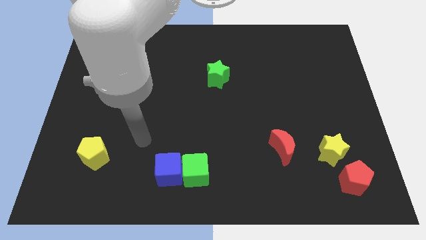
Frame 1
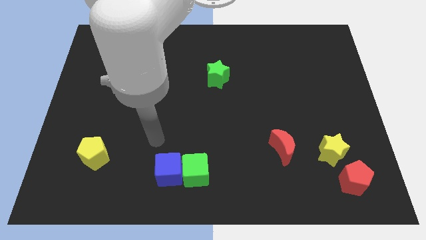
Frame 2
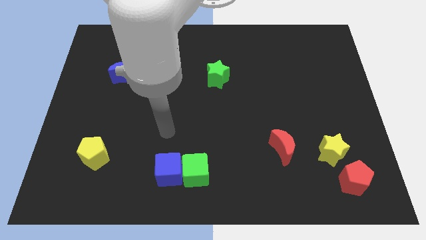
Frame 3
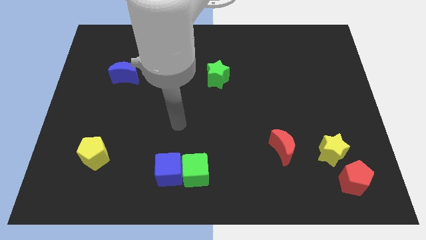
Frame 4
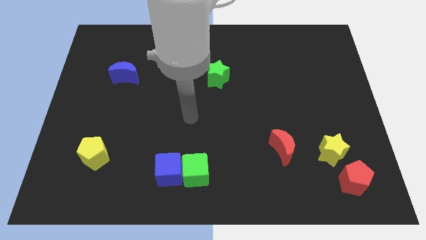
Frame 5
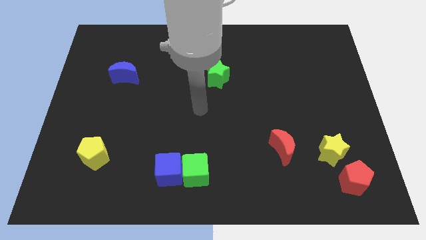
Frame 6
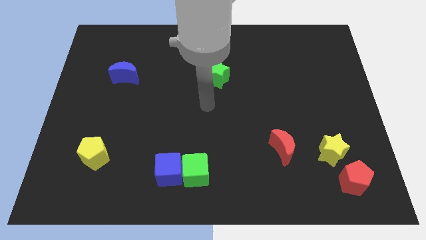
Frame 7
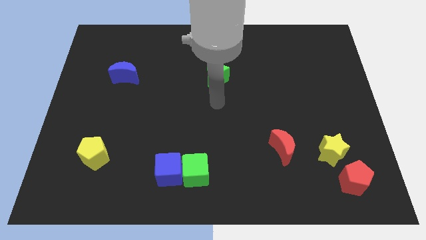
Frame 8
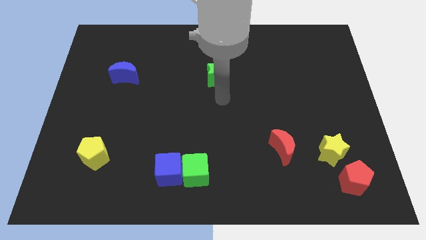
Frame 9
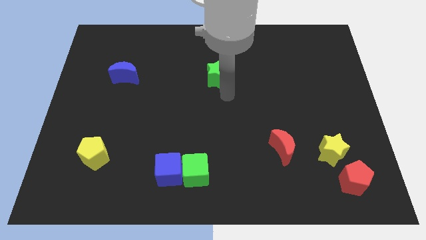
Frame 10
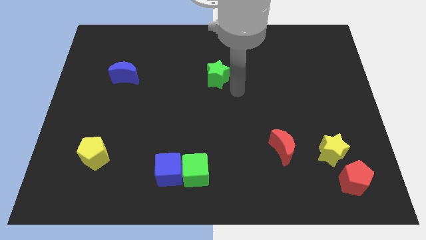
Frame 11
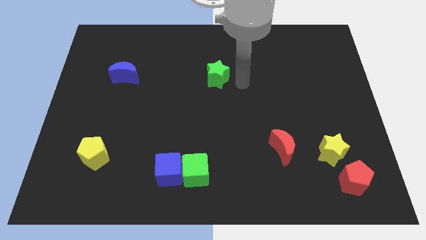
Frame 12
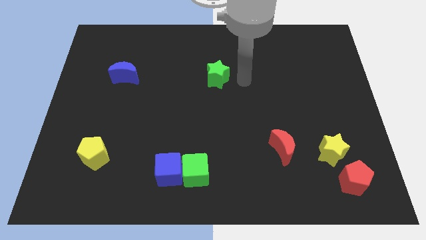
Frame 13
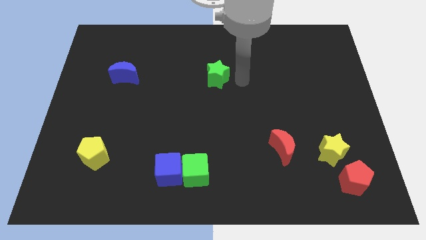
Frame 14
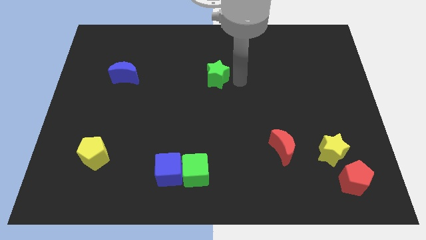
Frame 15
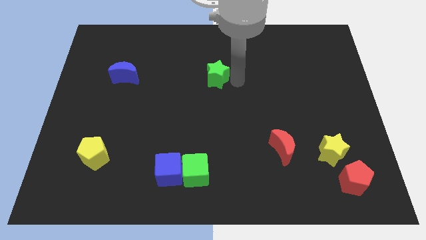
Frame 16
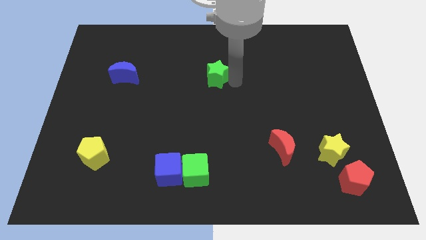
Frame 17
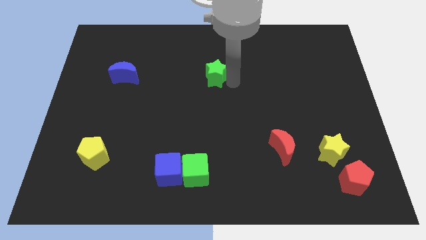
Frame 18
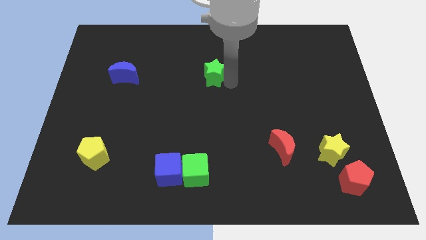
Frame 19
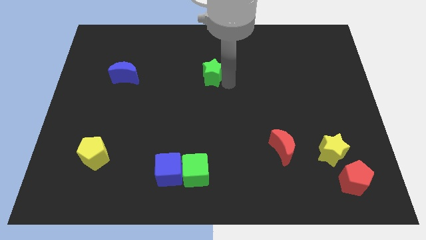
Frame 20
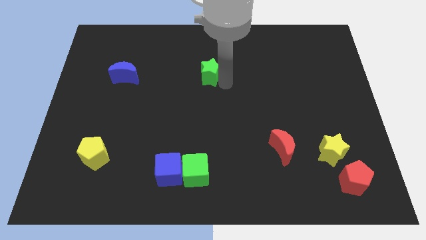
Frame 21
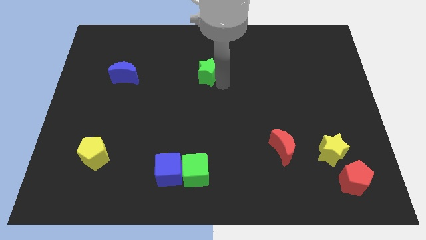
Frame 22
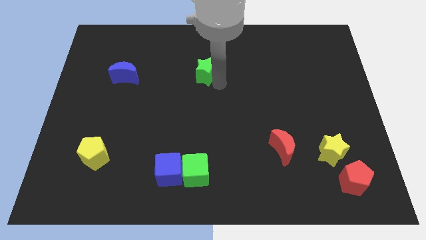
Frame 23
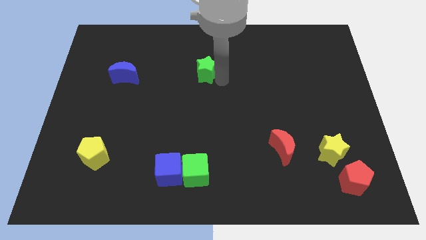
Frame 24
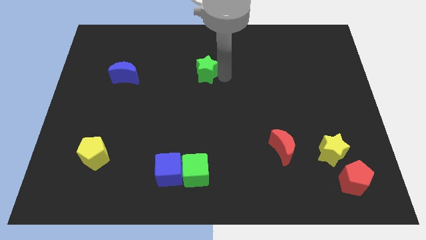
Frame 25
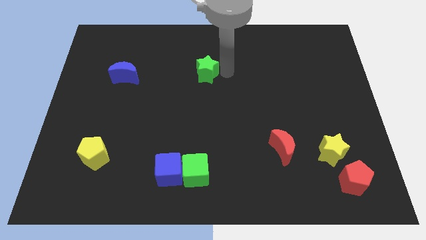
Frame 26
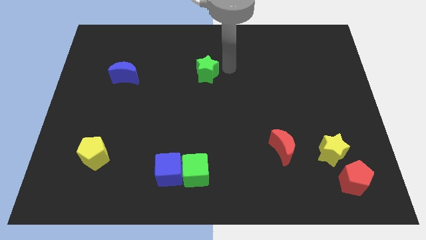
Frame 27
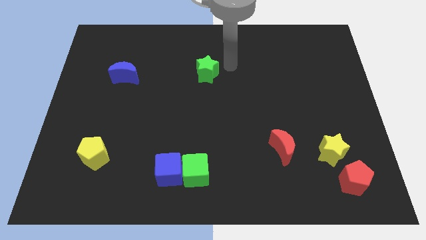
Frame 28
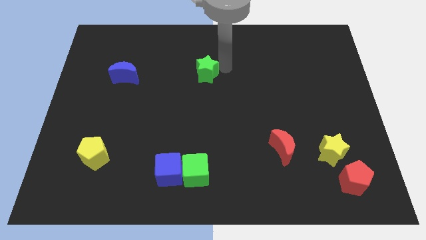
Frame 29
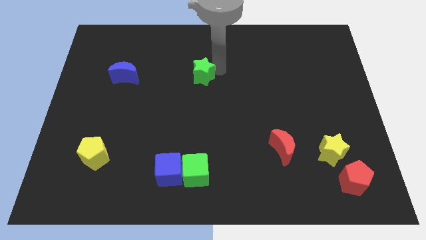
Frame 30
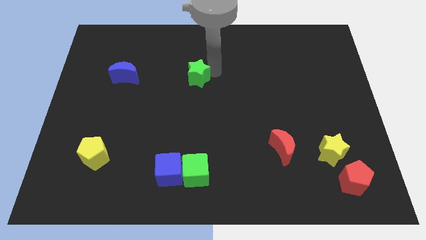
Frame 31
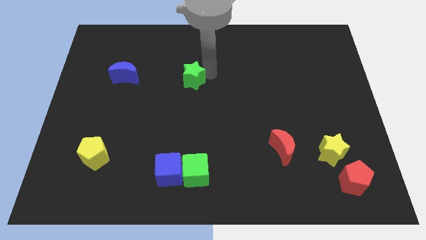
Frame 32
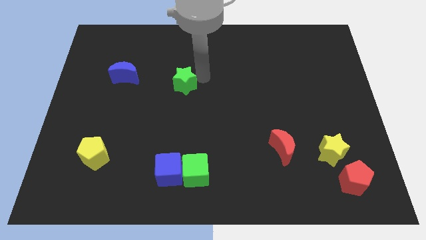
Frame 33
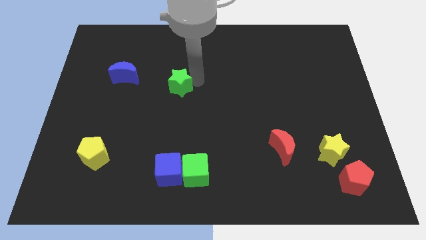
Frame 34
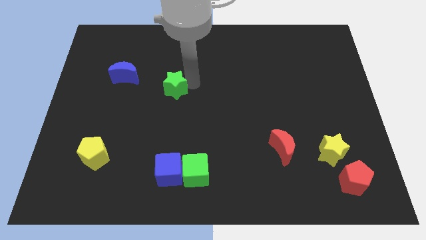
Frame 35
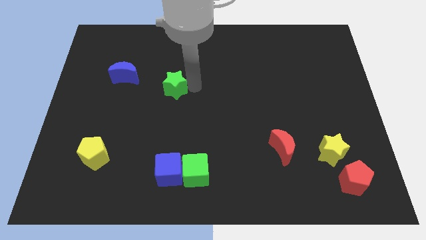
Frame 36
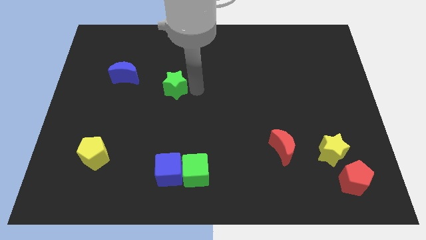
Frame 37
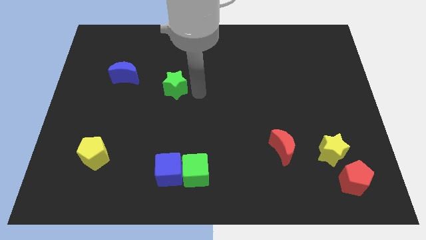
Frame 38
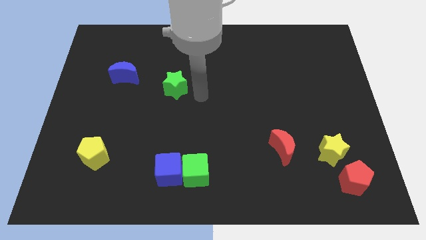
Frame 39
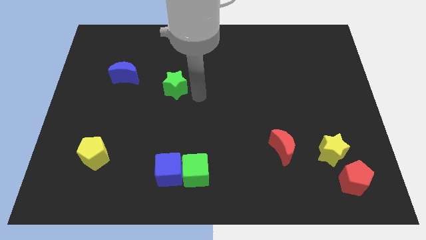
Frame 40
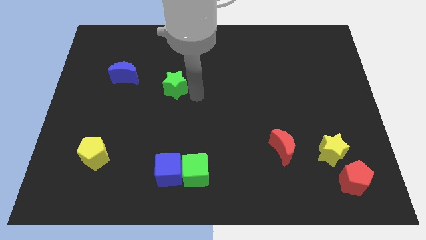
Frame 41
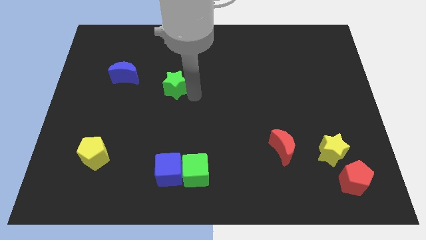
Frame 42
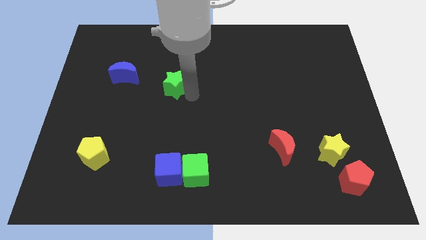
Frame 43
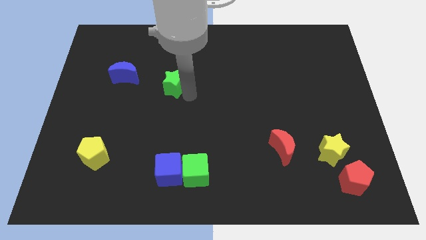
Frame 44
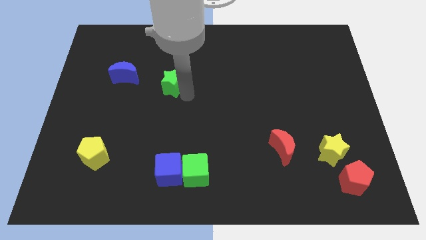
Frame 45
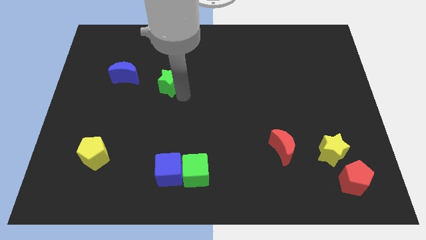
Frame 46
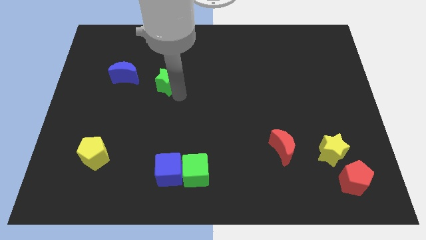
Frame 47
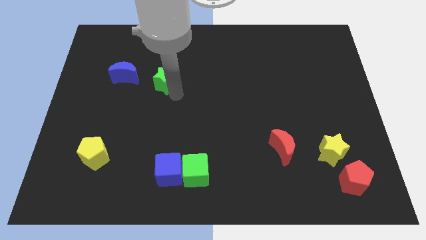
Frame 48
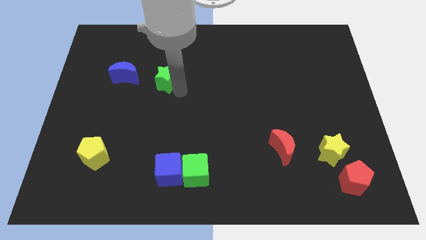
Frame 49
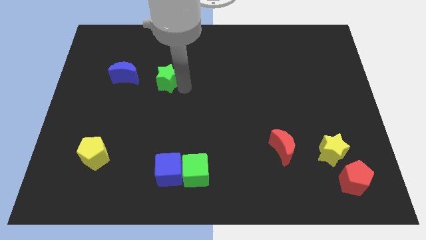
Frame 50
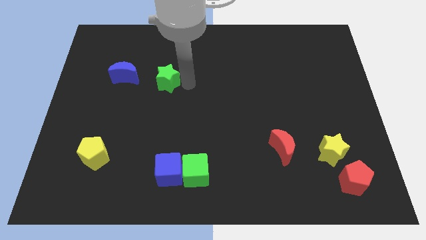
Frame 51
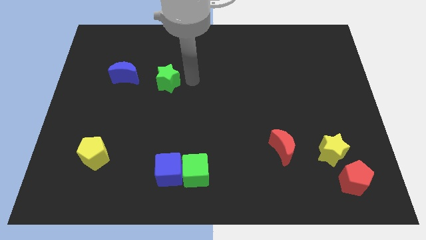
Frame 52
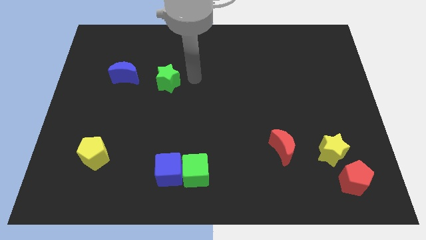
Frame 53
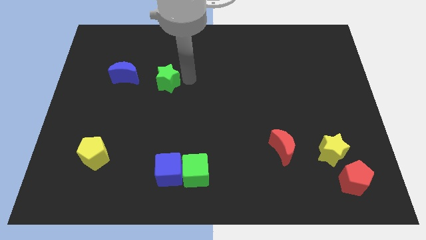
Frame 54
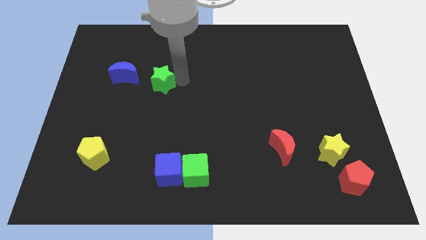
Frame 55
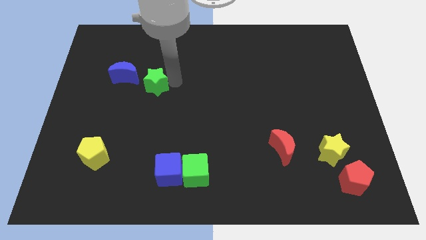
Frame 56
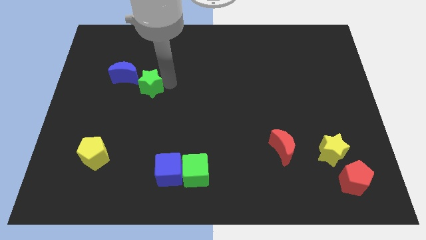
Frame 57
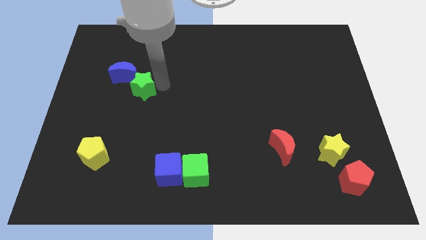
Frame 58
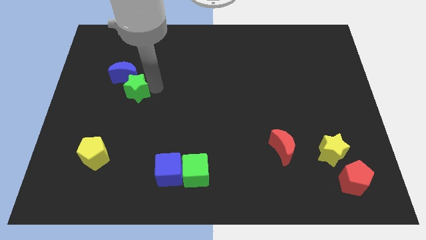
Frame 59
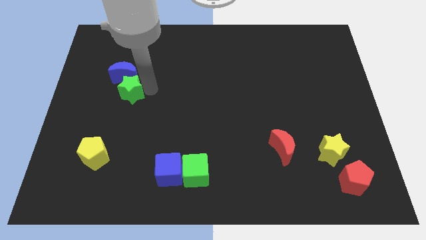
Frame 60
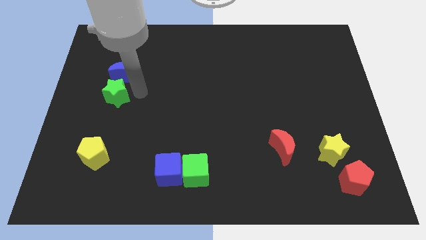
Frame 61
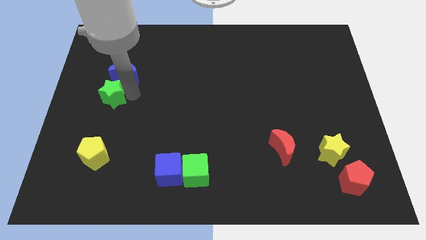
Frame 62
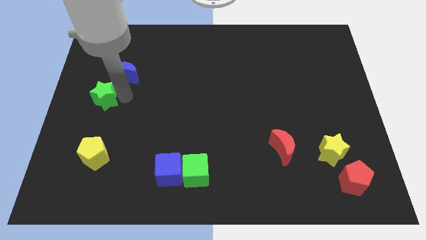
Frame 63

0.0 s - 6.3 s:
put the green star to the left side of the board

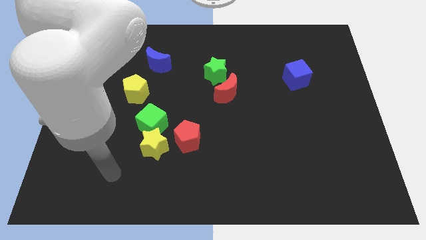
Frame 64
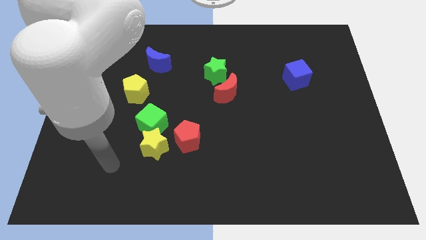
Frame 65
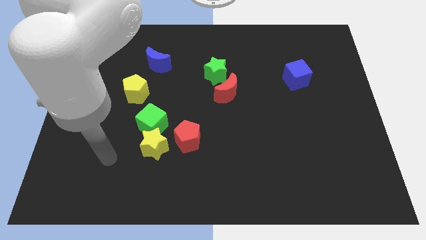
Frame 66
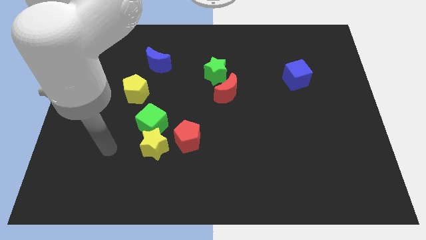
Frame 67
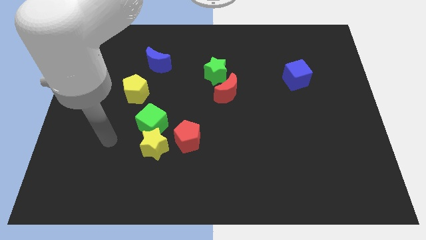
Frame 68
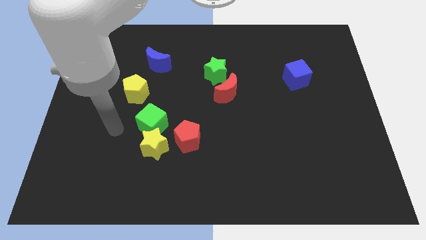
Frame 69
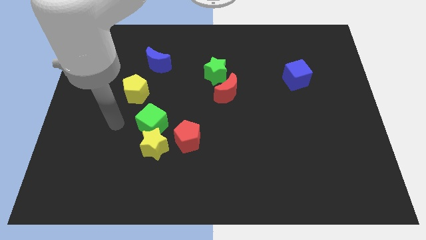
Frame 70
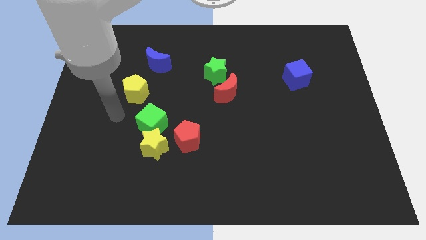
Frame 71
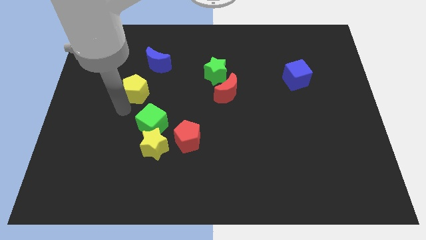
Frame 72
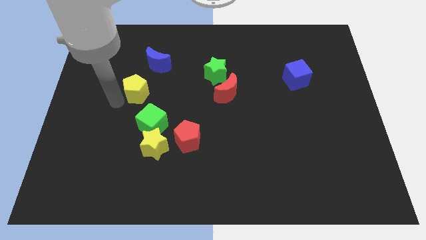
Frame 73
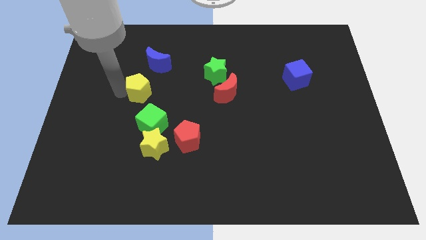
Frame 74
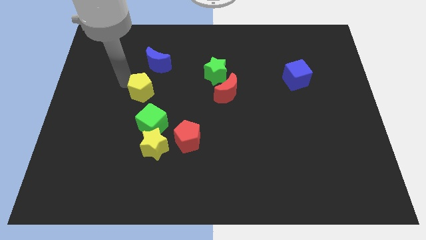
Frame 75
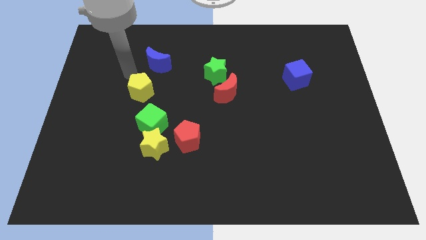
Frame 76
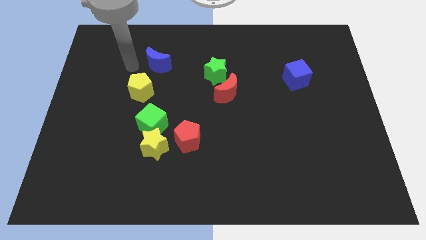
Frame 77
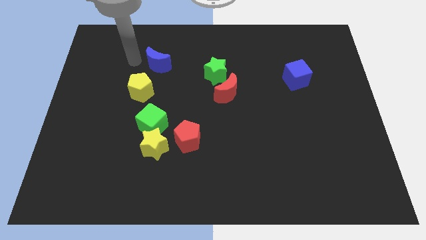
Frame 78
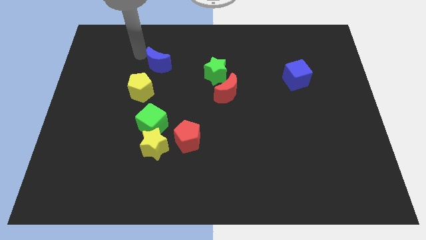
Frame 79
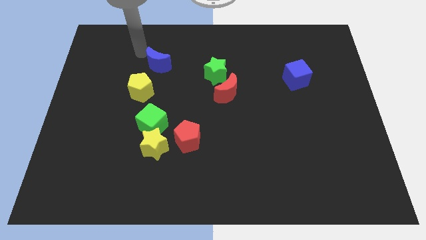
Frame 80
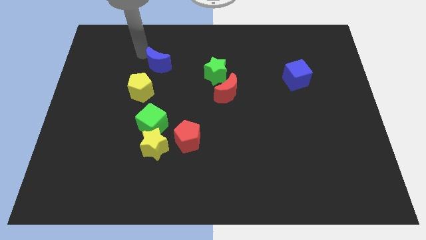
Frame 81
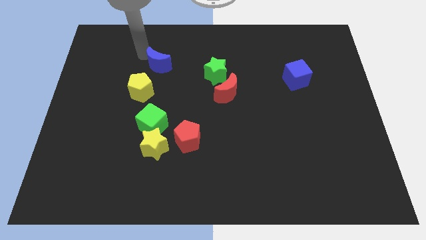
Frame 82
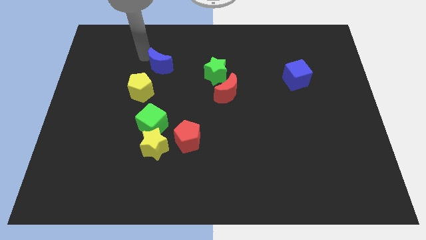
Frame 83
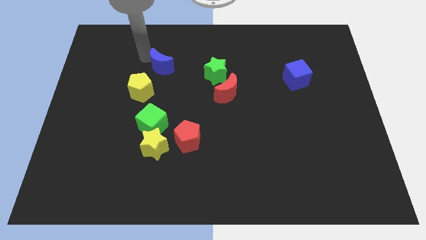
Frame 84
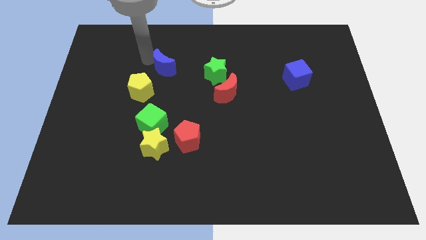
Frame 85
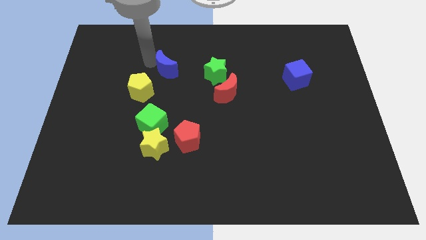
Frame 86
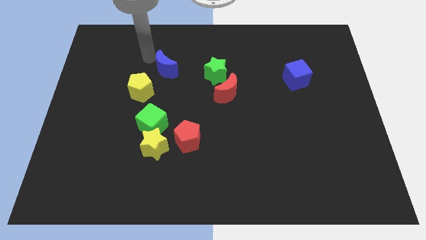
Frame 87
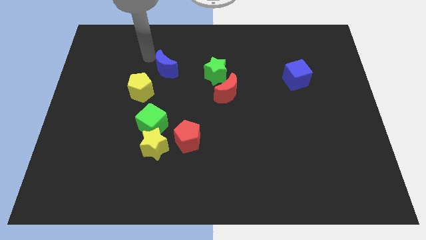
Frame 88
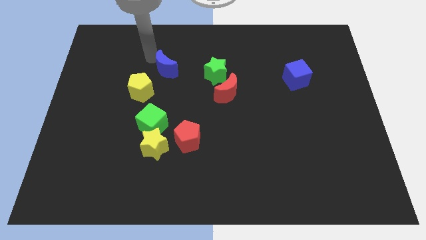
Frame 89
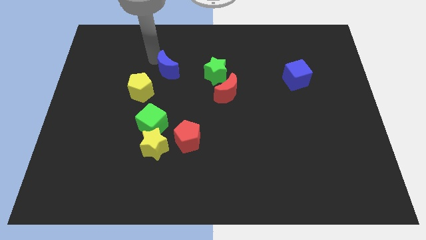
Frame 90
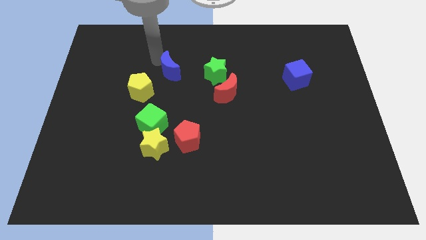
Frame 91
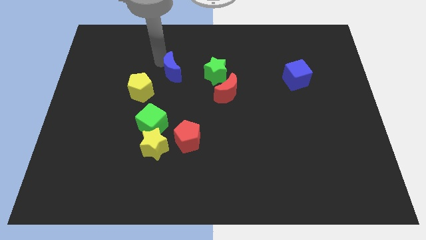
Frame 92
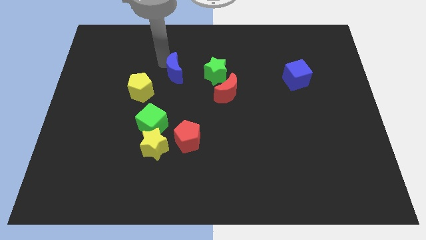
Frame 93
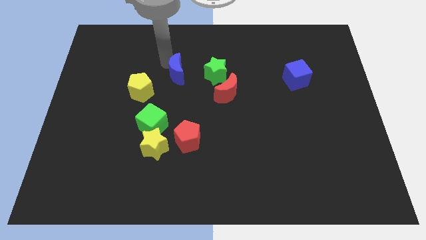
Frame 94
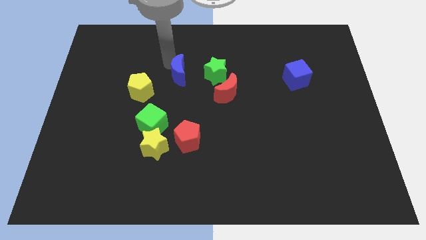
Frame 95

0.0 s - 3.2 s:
move the blue moon to the center of the board
